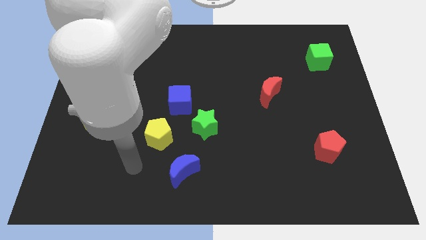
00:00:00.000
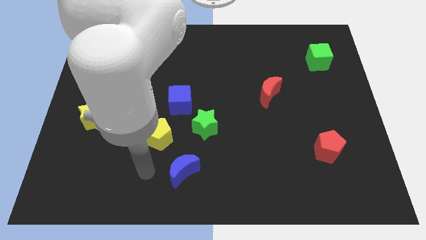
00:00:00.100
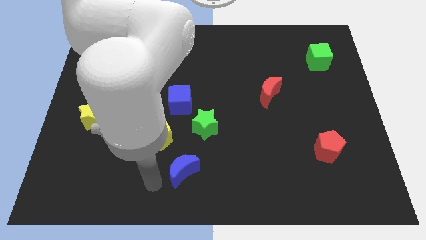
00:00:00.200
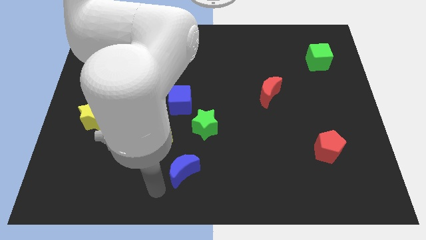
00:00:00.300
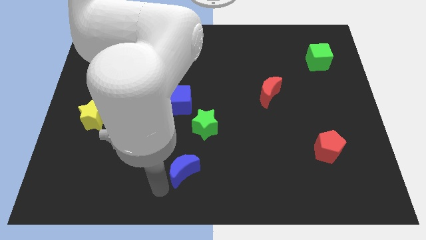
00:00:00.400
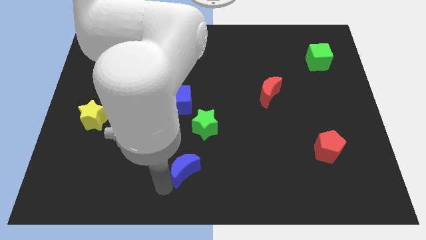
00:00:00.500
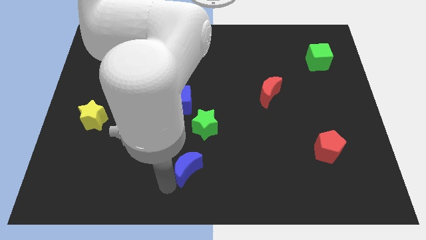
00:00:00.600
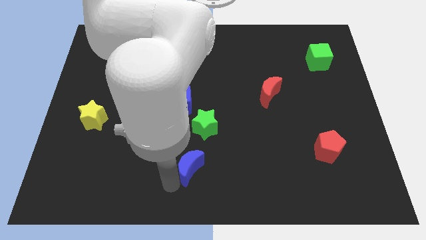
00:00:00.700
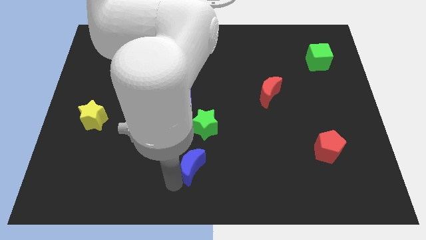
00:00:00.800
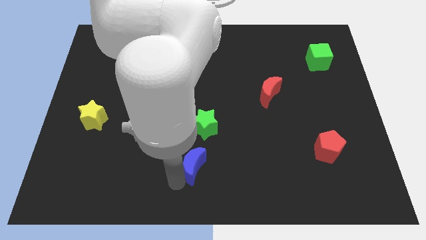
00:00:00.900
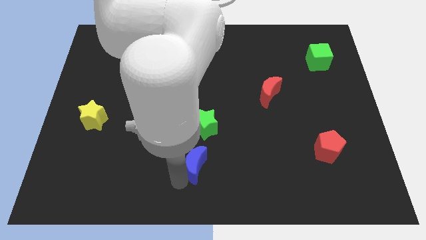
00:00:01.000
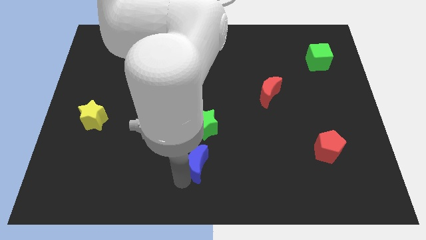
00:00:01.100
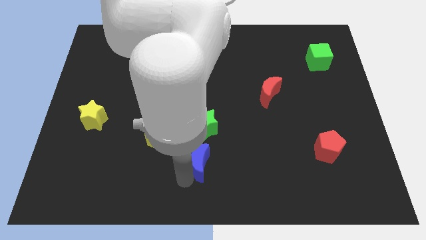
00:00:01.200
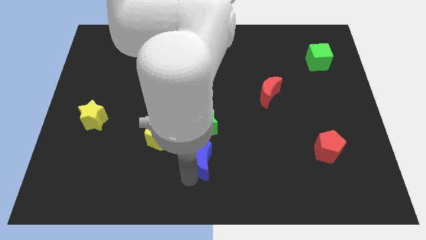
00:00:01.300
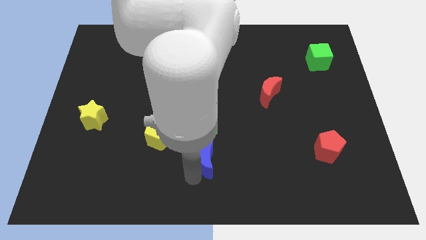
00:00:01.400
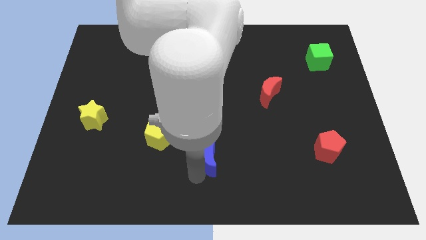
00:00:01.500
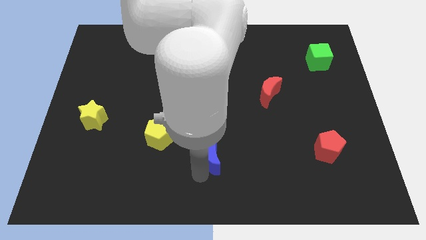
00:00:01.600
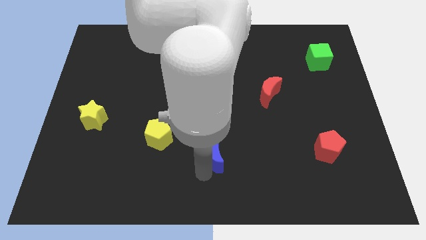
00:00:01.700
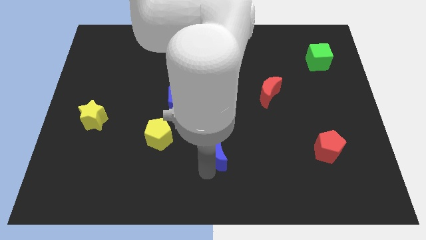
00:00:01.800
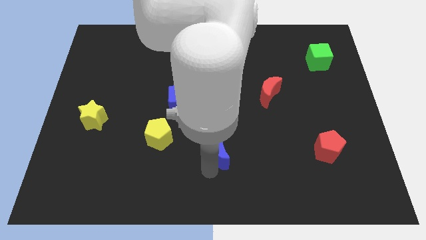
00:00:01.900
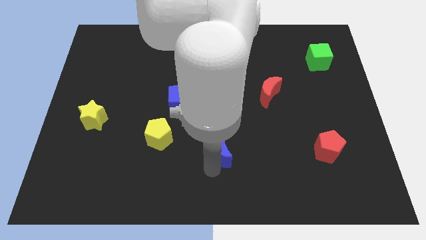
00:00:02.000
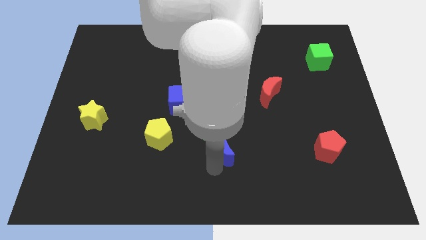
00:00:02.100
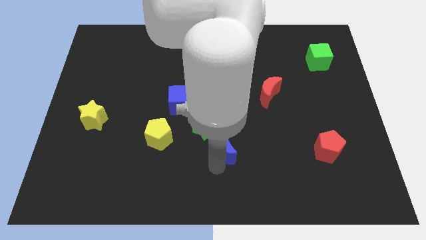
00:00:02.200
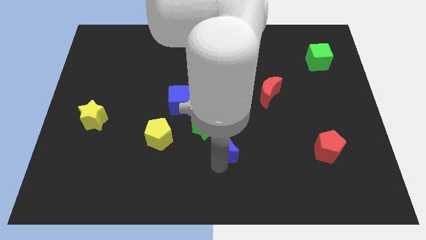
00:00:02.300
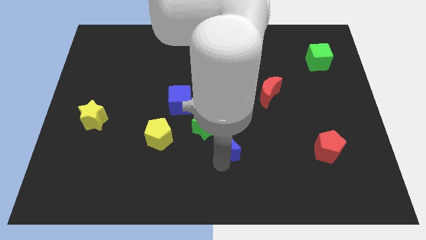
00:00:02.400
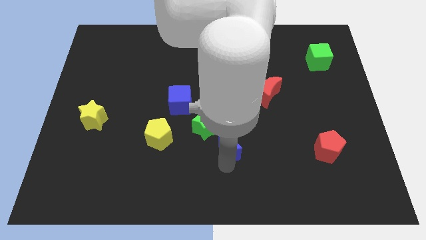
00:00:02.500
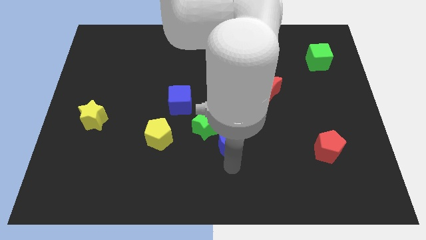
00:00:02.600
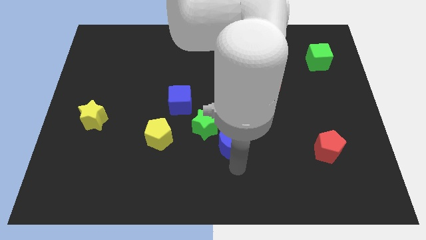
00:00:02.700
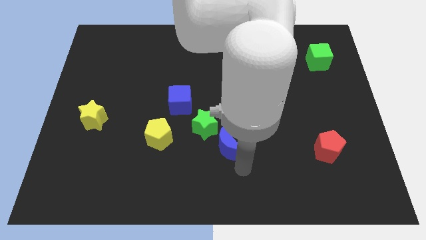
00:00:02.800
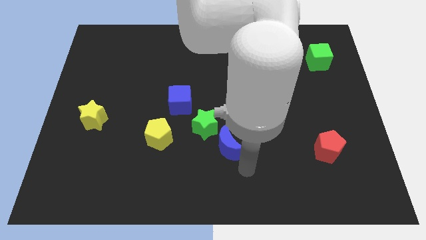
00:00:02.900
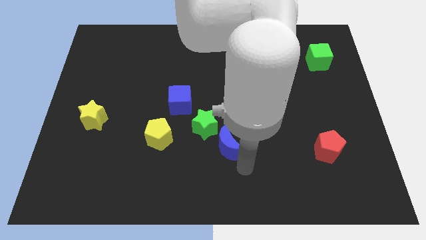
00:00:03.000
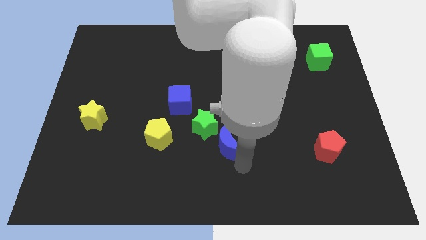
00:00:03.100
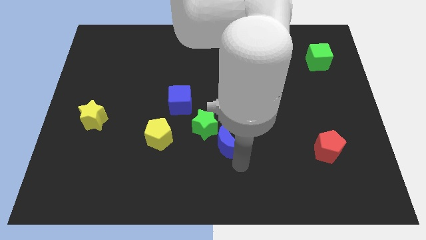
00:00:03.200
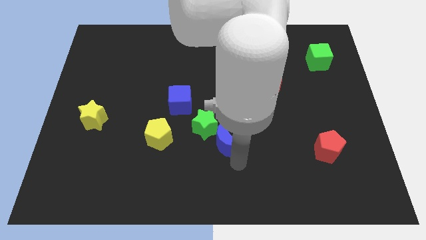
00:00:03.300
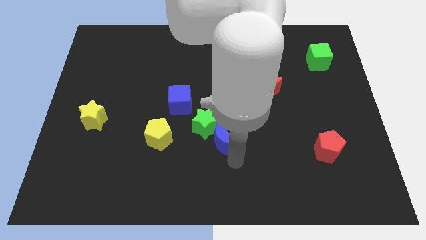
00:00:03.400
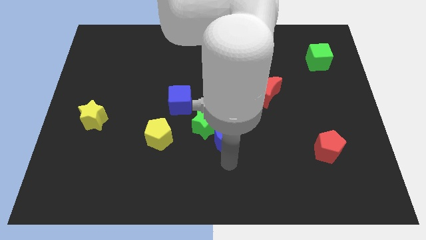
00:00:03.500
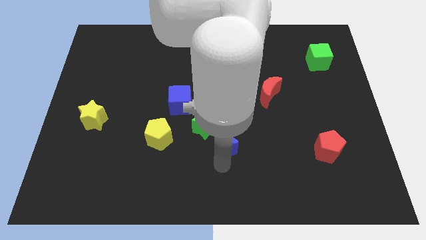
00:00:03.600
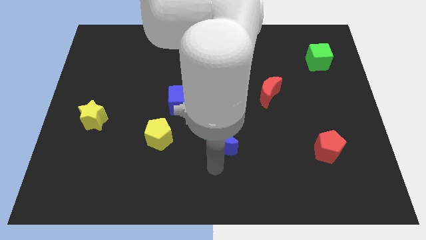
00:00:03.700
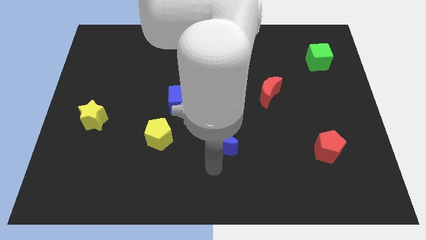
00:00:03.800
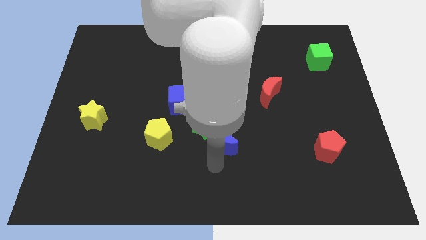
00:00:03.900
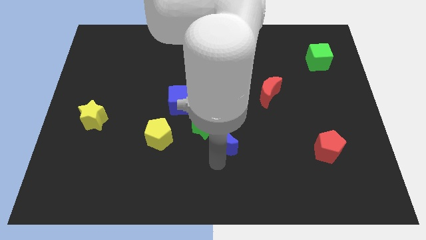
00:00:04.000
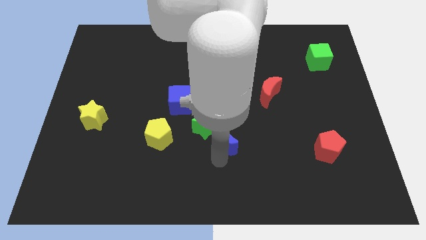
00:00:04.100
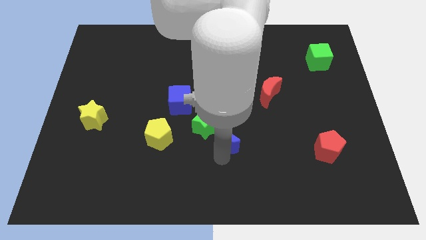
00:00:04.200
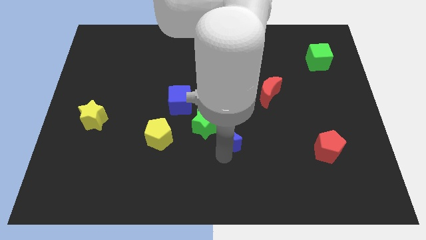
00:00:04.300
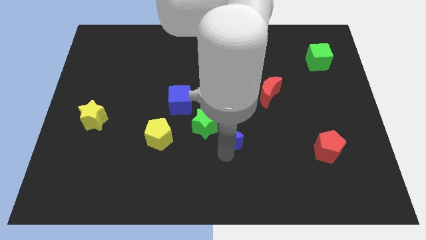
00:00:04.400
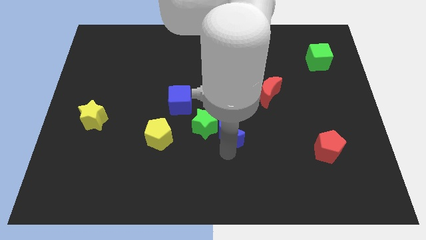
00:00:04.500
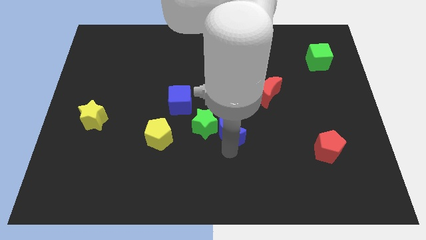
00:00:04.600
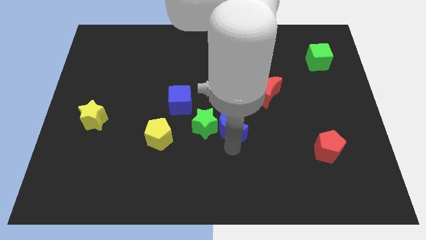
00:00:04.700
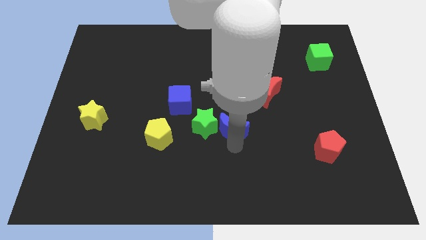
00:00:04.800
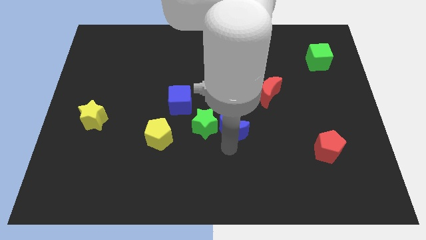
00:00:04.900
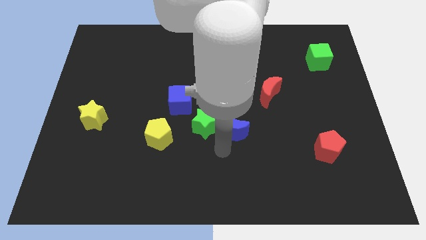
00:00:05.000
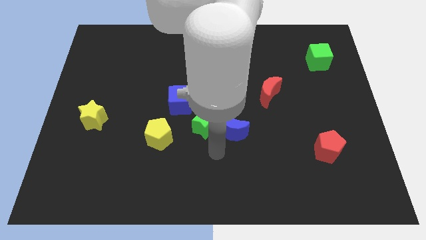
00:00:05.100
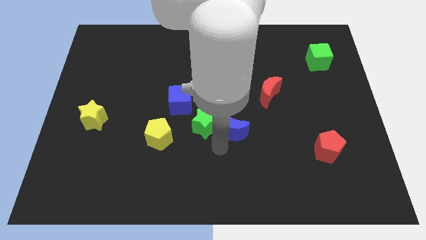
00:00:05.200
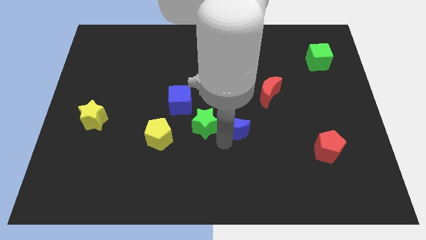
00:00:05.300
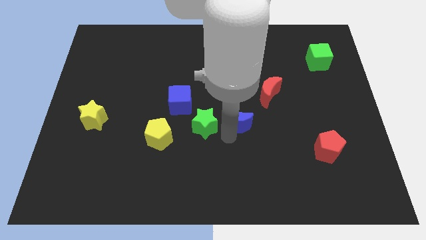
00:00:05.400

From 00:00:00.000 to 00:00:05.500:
push the blue moon to the bottom left of the red moon

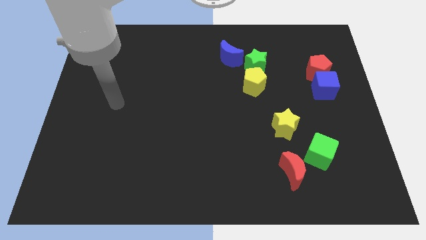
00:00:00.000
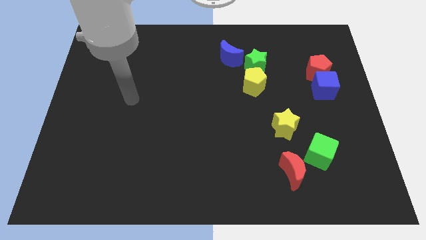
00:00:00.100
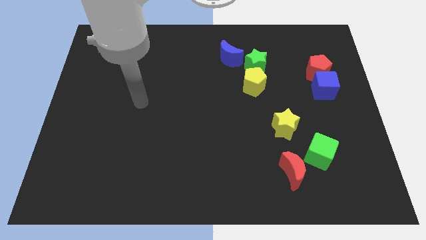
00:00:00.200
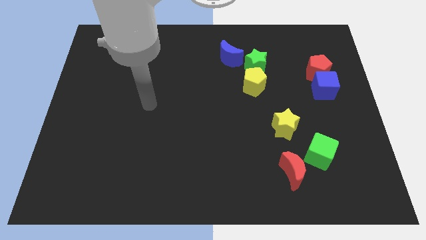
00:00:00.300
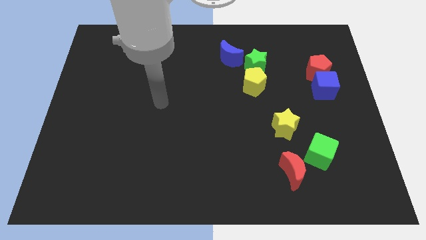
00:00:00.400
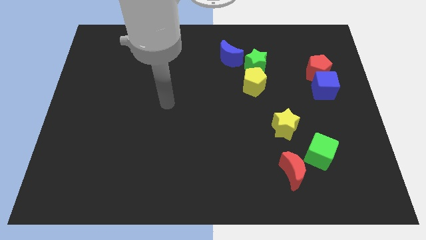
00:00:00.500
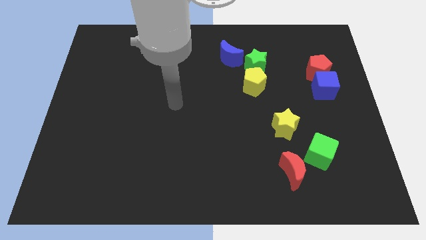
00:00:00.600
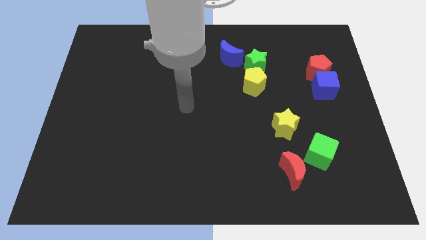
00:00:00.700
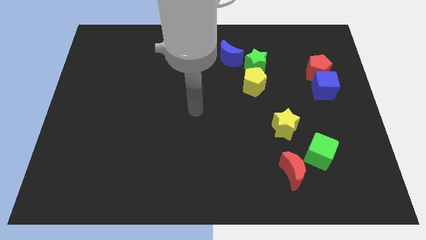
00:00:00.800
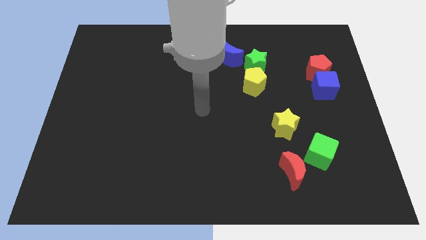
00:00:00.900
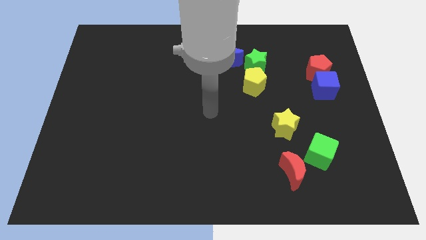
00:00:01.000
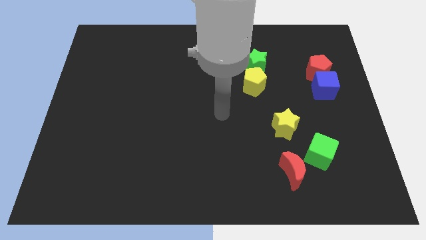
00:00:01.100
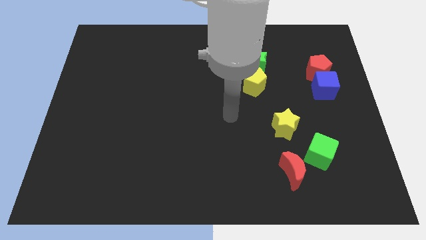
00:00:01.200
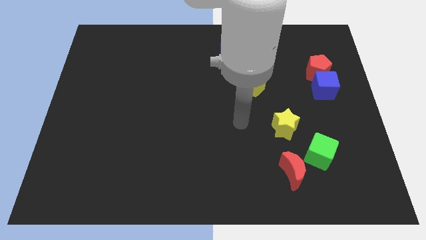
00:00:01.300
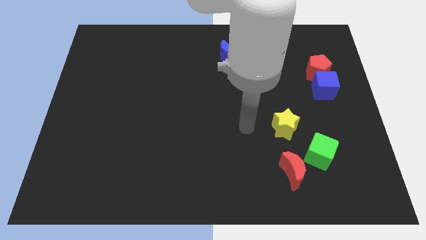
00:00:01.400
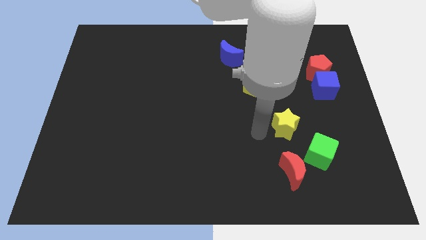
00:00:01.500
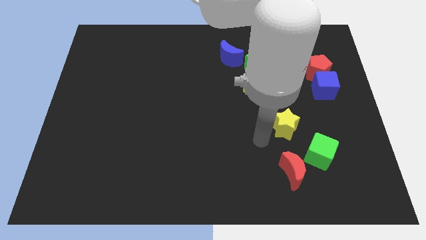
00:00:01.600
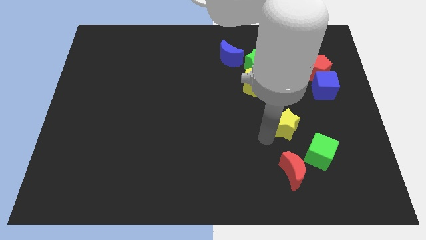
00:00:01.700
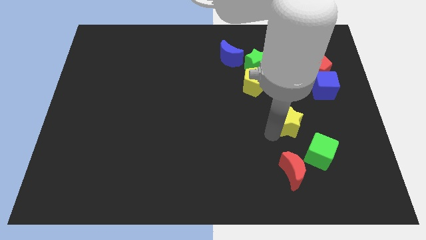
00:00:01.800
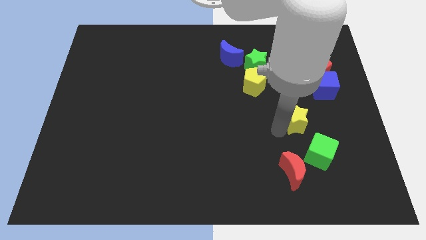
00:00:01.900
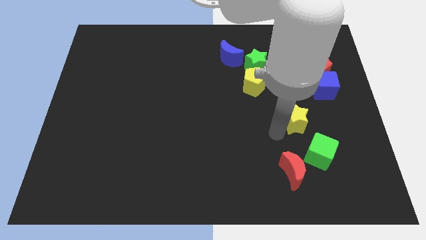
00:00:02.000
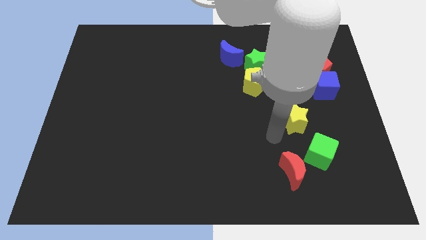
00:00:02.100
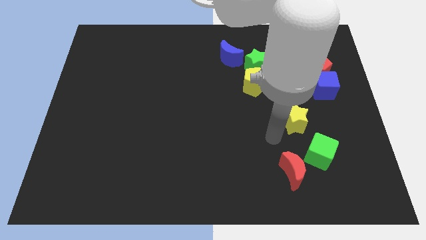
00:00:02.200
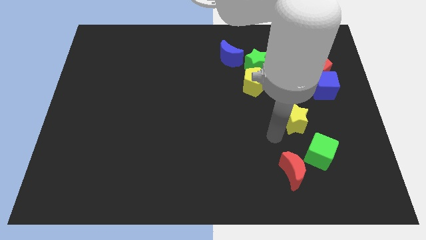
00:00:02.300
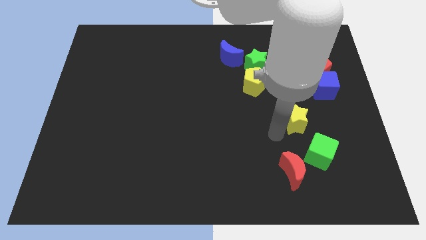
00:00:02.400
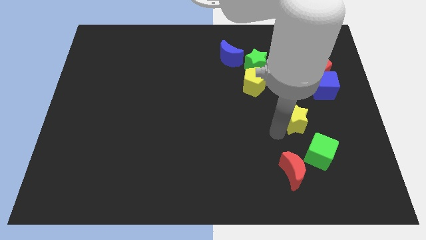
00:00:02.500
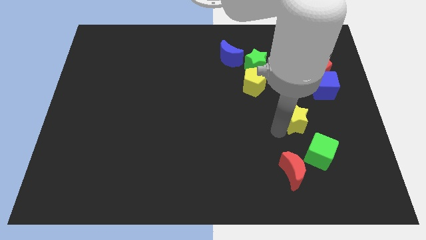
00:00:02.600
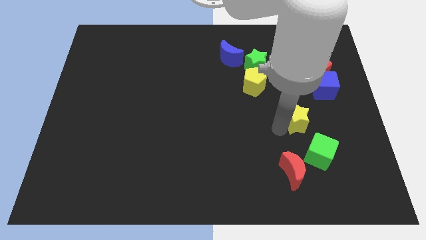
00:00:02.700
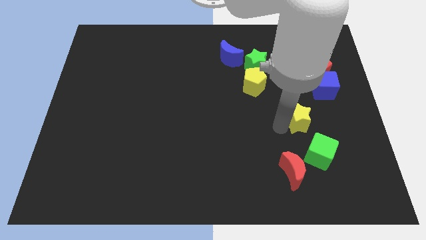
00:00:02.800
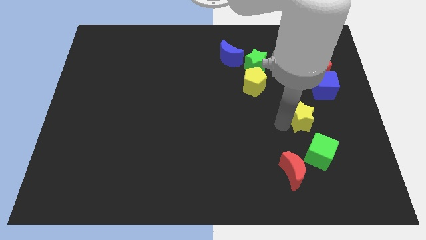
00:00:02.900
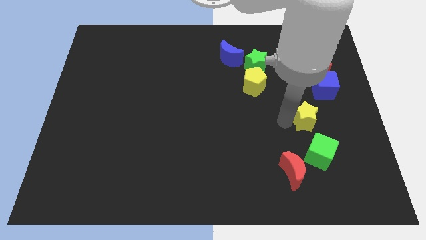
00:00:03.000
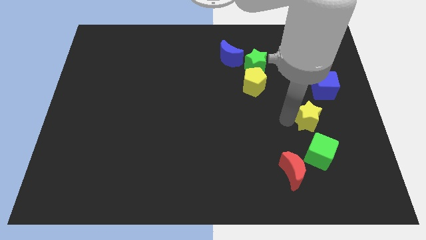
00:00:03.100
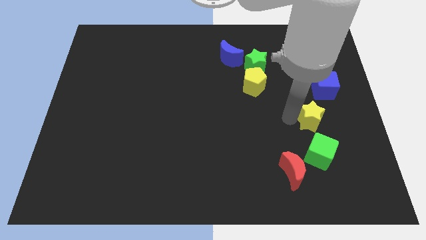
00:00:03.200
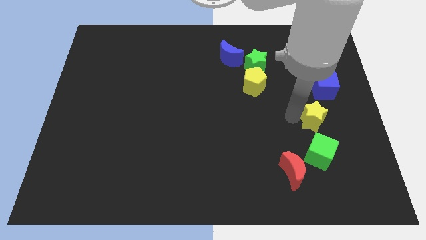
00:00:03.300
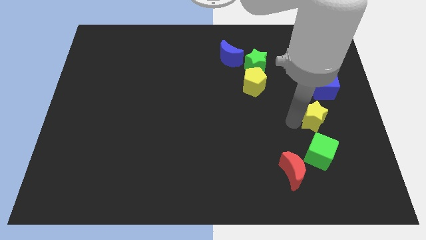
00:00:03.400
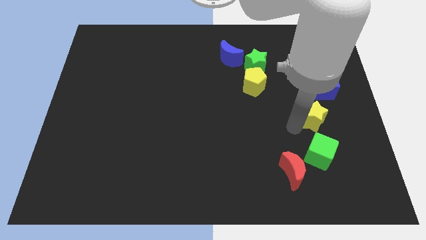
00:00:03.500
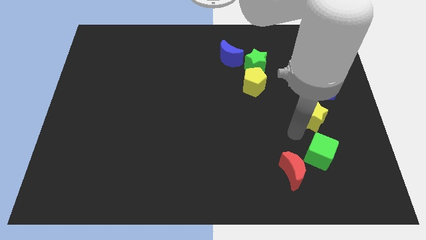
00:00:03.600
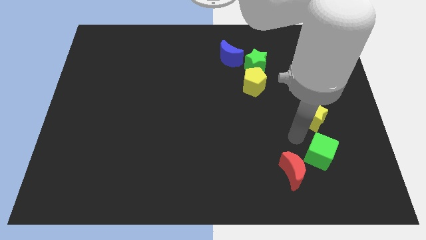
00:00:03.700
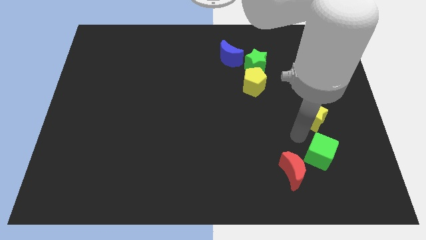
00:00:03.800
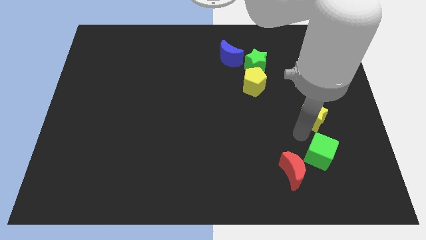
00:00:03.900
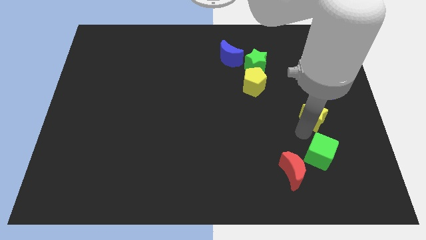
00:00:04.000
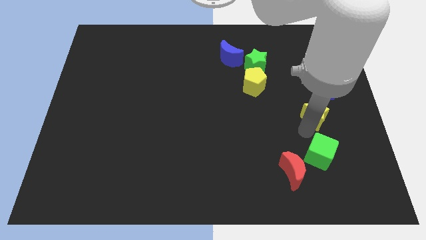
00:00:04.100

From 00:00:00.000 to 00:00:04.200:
slide the yellow star below the red pentagon
